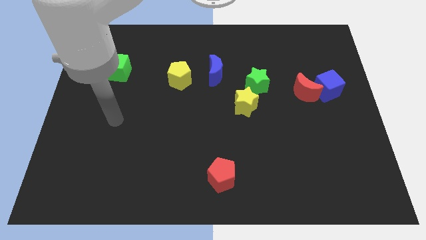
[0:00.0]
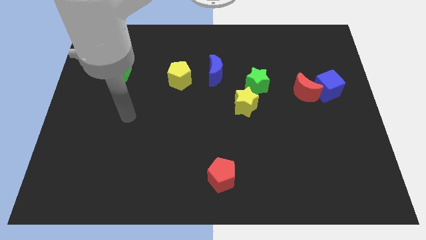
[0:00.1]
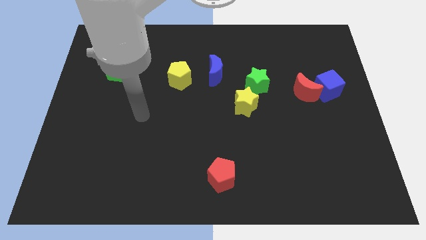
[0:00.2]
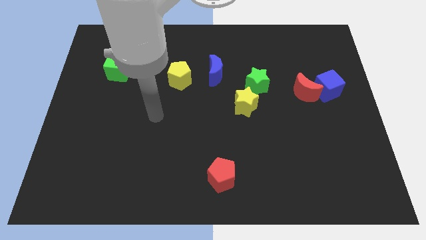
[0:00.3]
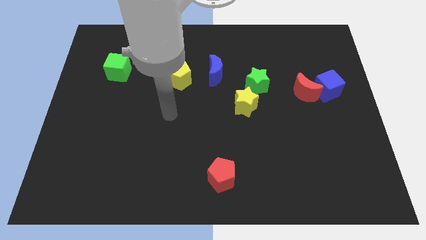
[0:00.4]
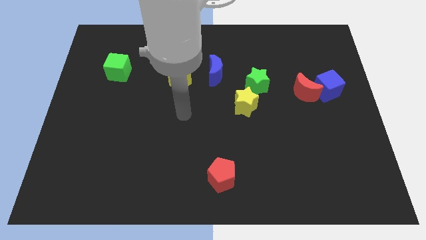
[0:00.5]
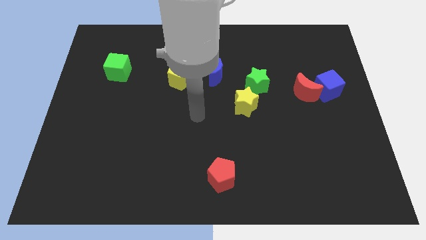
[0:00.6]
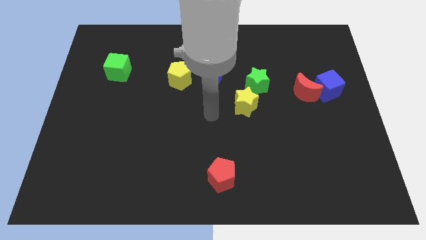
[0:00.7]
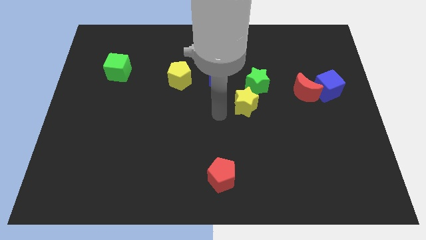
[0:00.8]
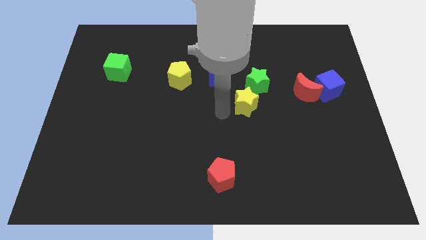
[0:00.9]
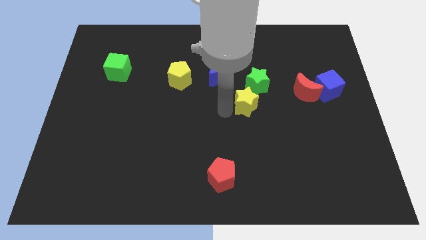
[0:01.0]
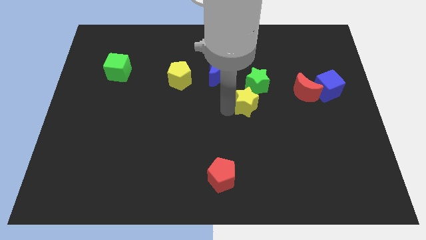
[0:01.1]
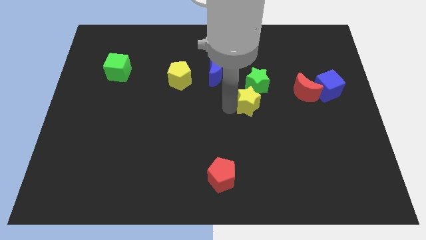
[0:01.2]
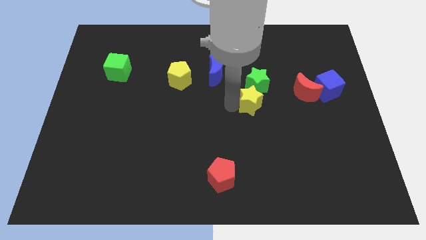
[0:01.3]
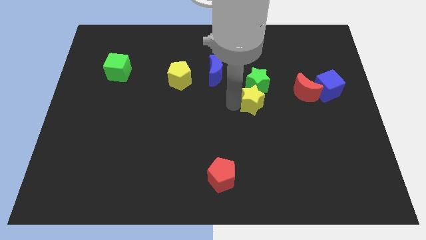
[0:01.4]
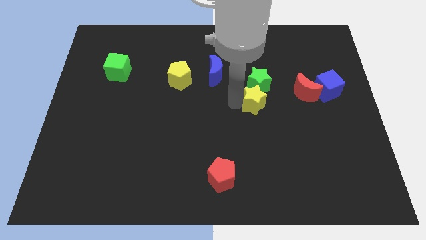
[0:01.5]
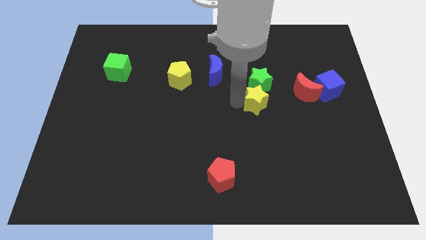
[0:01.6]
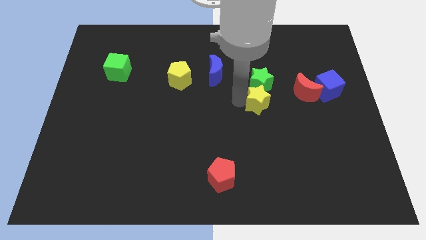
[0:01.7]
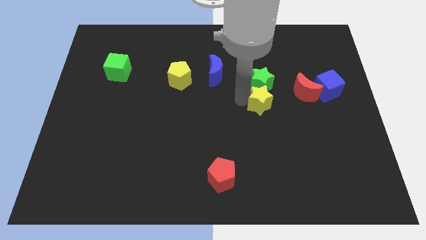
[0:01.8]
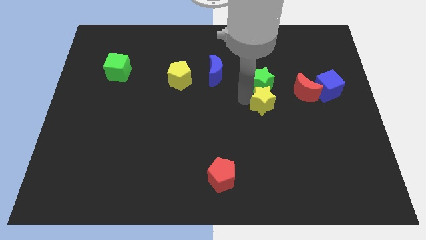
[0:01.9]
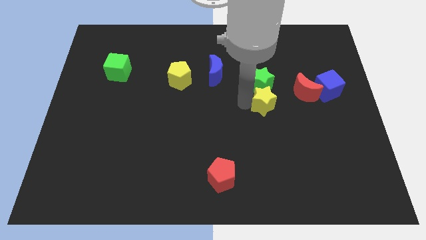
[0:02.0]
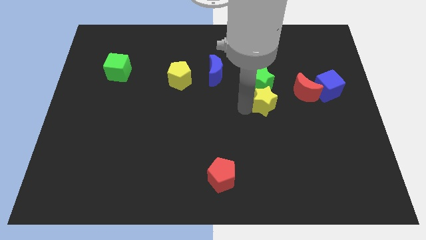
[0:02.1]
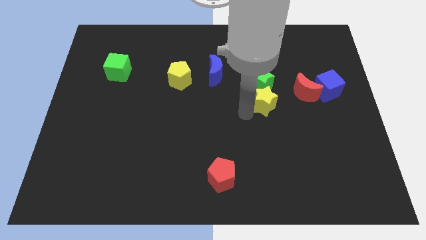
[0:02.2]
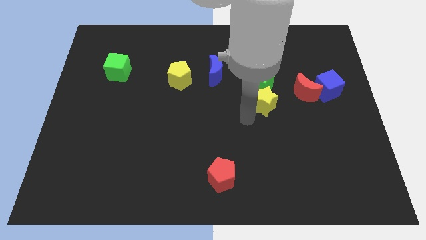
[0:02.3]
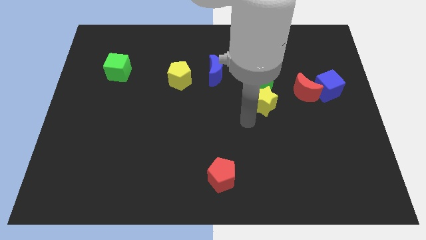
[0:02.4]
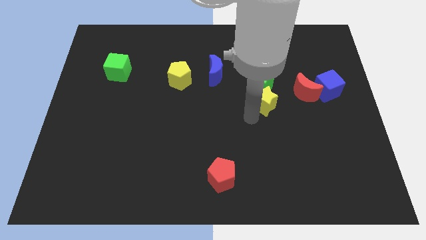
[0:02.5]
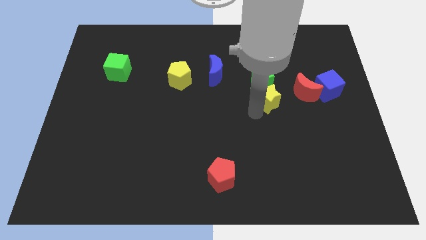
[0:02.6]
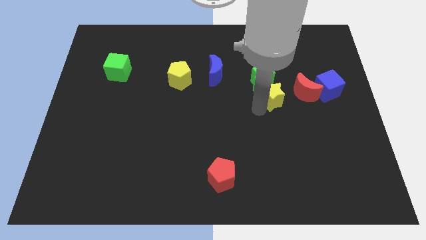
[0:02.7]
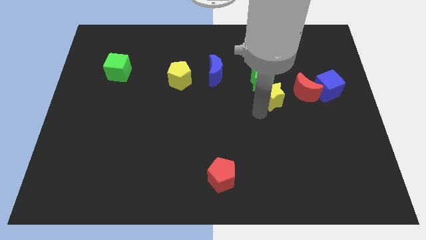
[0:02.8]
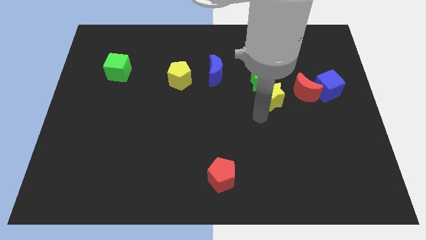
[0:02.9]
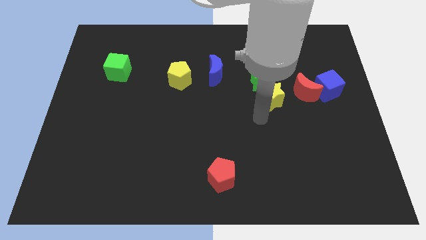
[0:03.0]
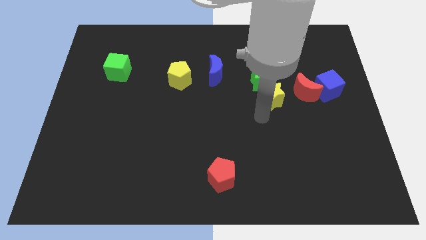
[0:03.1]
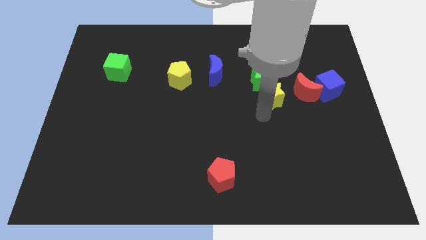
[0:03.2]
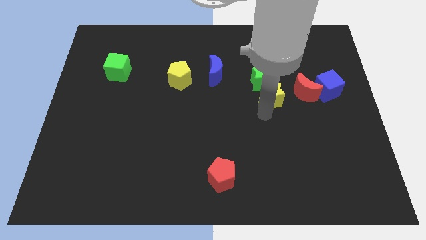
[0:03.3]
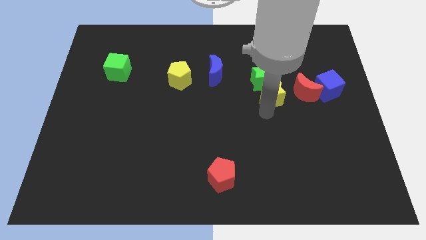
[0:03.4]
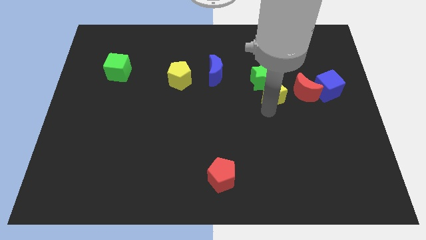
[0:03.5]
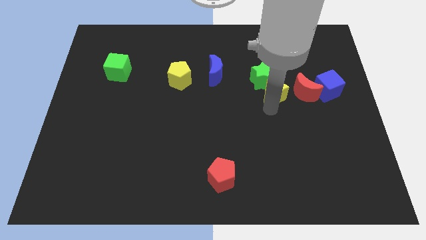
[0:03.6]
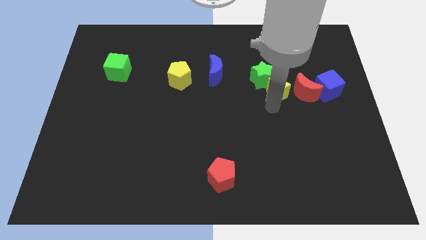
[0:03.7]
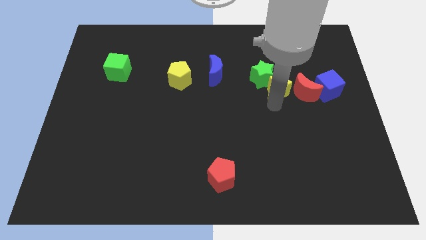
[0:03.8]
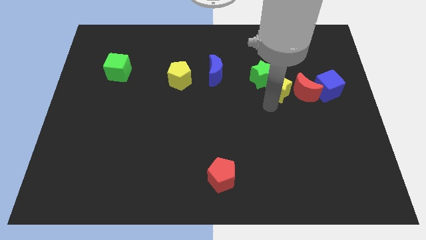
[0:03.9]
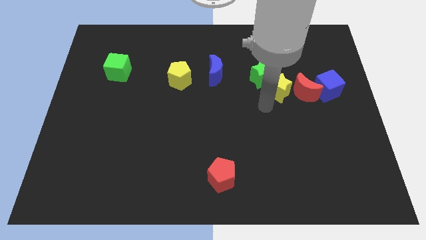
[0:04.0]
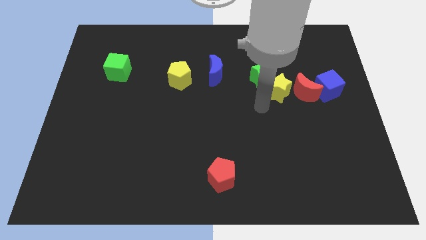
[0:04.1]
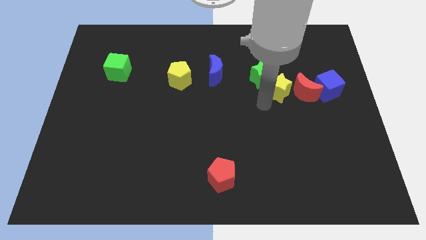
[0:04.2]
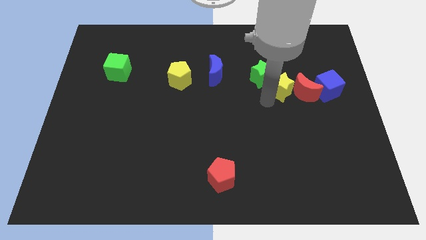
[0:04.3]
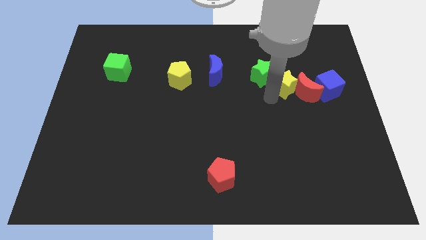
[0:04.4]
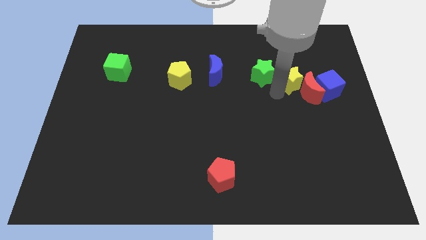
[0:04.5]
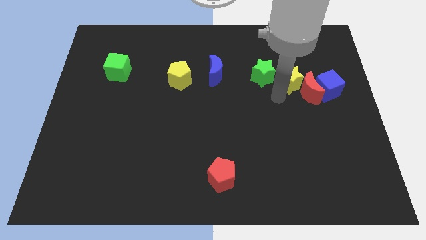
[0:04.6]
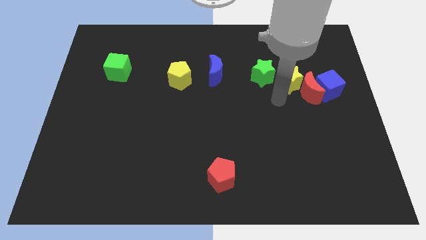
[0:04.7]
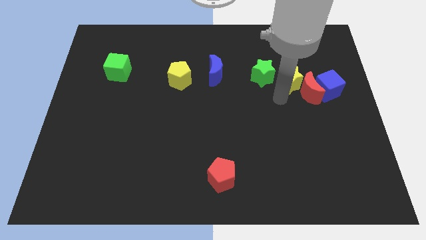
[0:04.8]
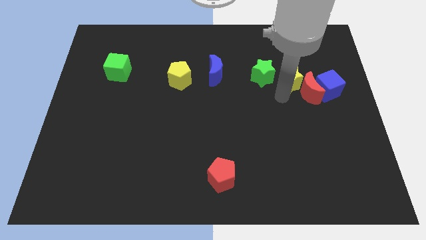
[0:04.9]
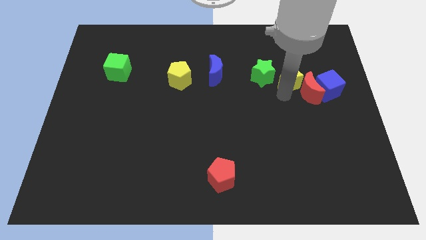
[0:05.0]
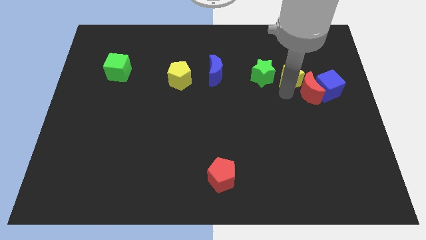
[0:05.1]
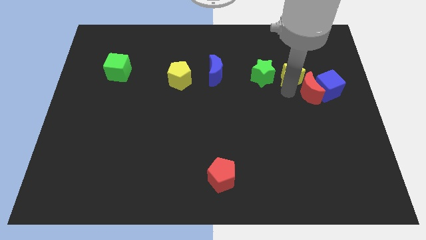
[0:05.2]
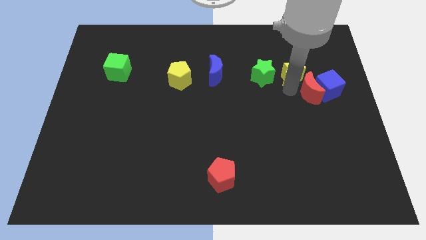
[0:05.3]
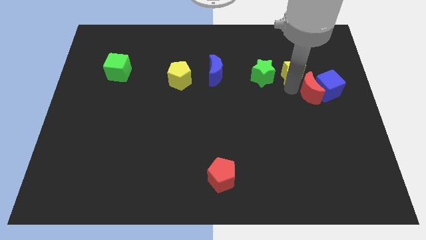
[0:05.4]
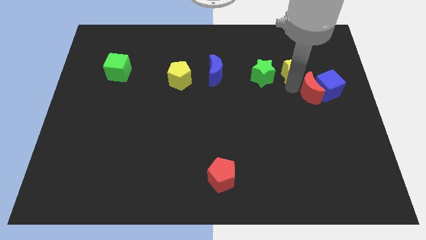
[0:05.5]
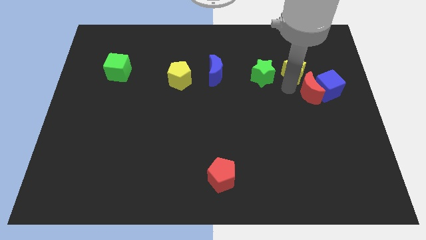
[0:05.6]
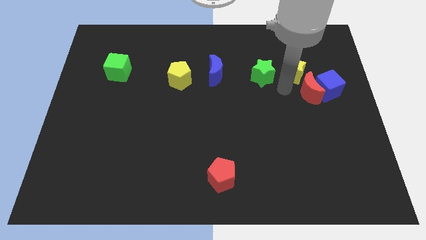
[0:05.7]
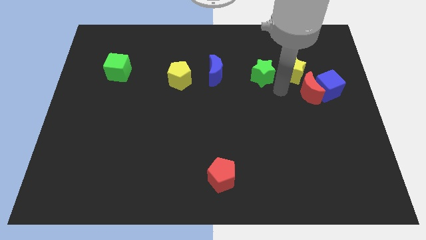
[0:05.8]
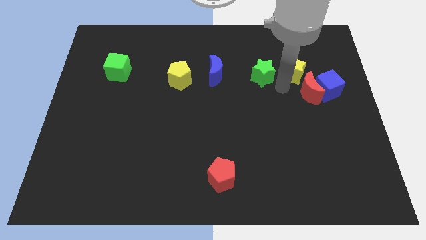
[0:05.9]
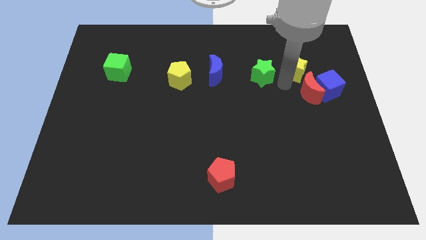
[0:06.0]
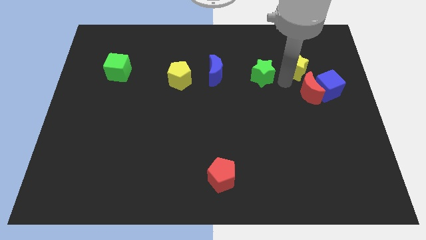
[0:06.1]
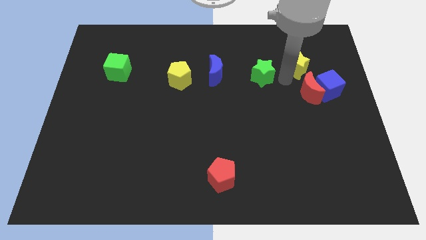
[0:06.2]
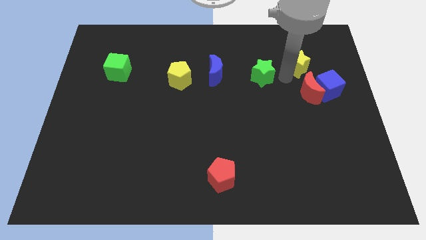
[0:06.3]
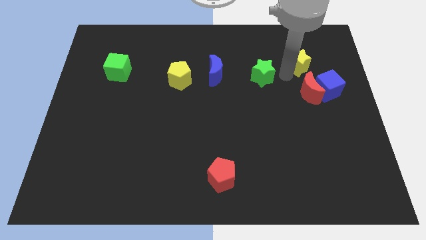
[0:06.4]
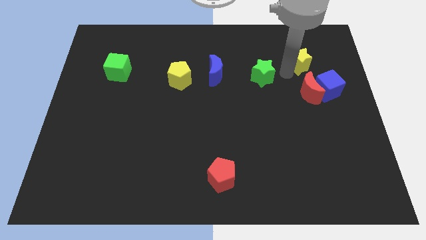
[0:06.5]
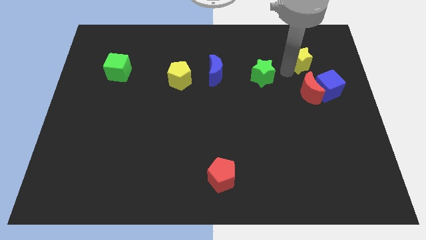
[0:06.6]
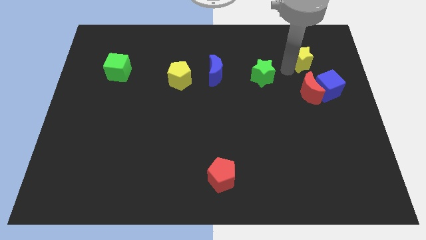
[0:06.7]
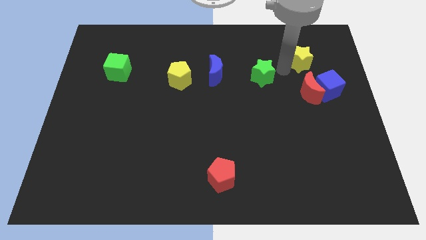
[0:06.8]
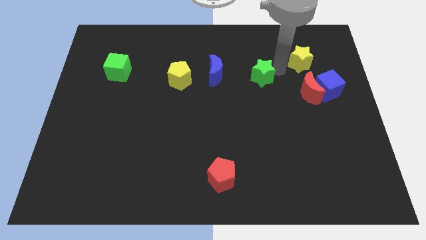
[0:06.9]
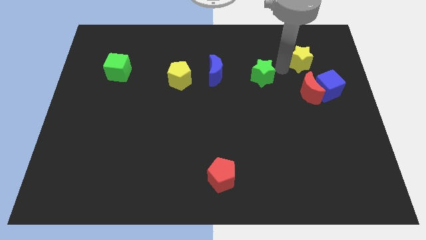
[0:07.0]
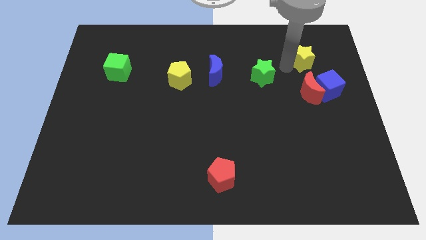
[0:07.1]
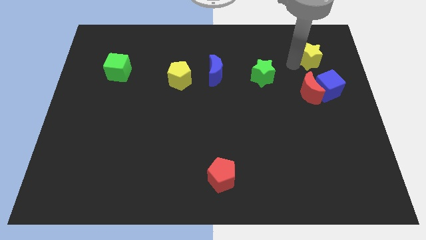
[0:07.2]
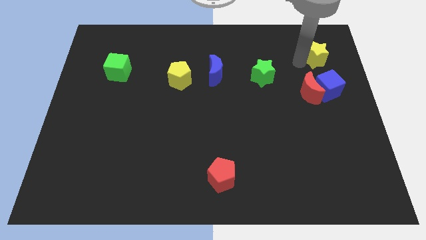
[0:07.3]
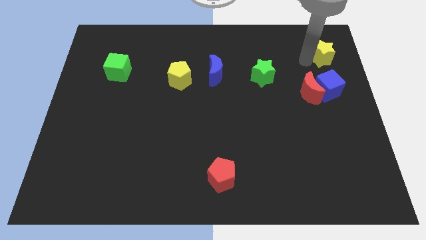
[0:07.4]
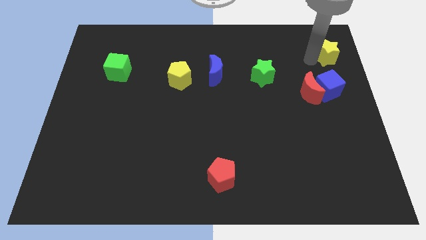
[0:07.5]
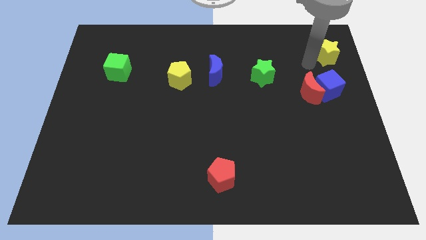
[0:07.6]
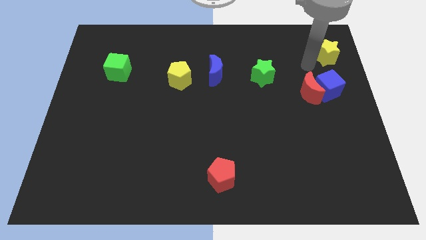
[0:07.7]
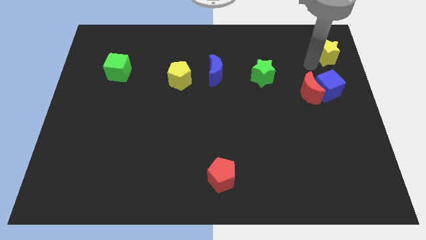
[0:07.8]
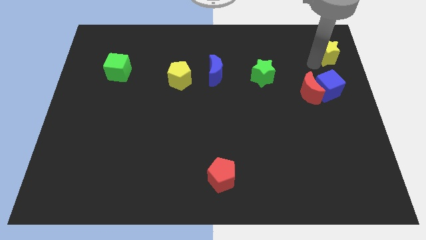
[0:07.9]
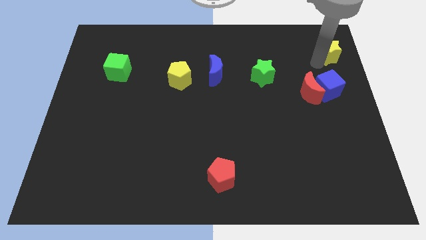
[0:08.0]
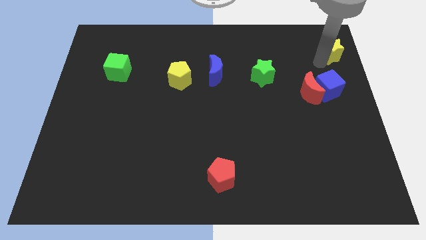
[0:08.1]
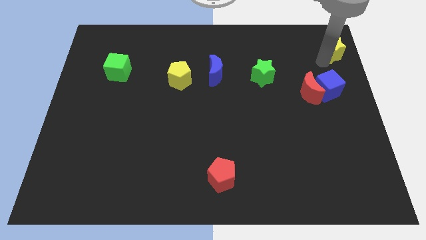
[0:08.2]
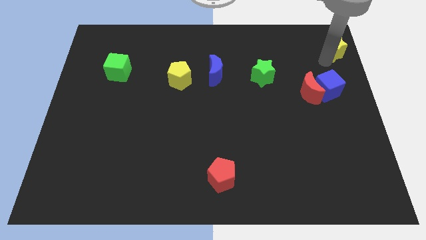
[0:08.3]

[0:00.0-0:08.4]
put the yellow star to the top right of the board
